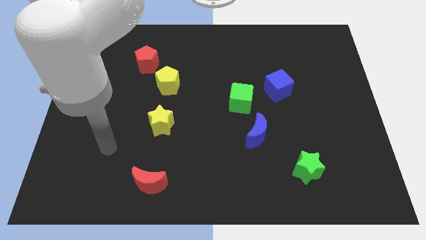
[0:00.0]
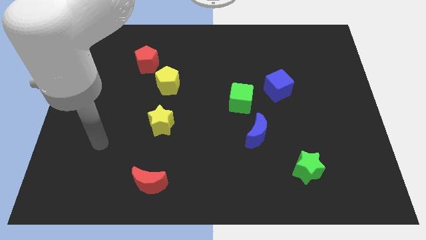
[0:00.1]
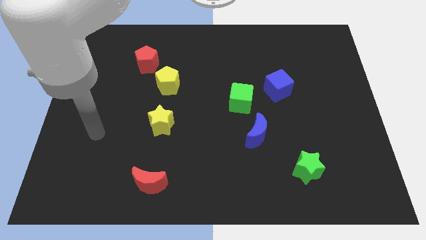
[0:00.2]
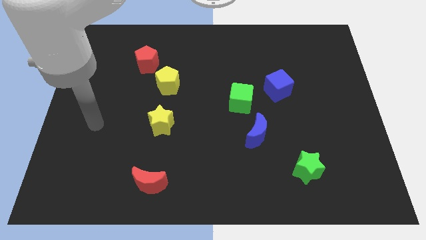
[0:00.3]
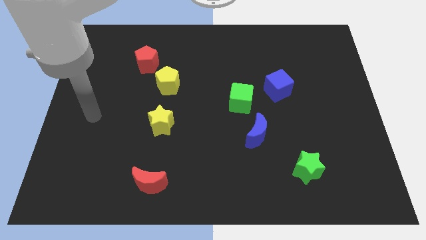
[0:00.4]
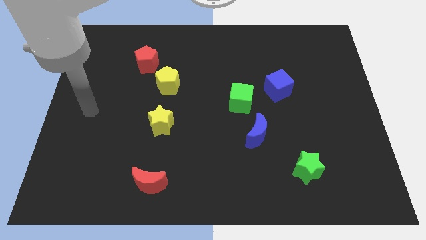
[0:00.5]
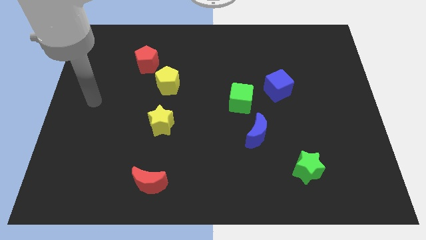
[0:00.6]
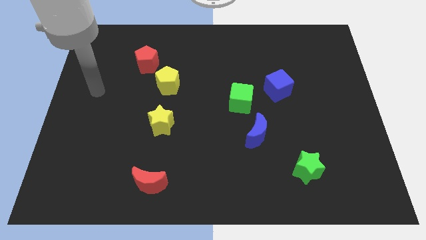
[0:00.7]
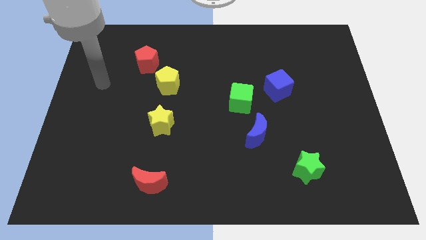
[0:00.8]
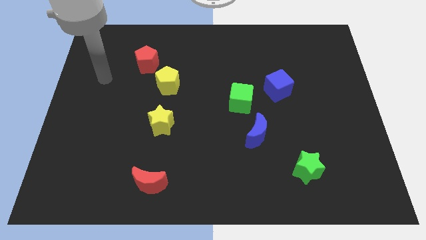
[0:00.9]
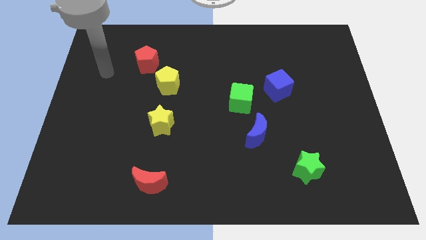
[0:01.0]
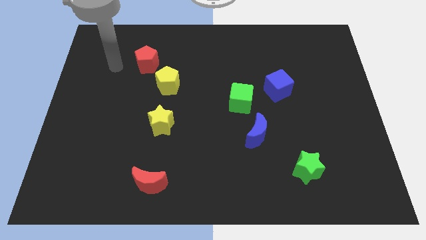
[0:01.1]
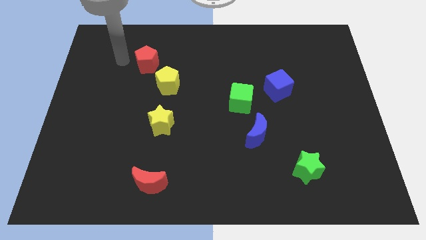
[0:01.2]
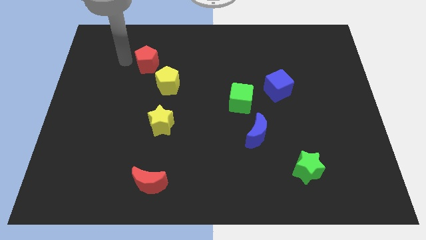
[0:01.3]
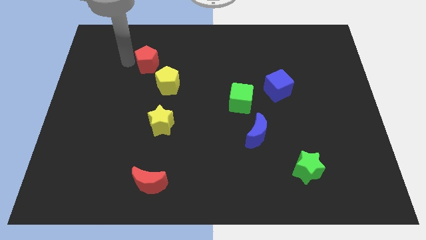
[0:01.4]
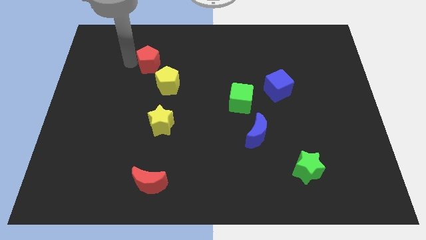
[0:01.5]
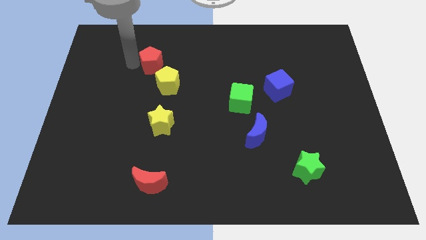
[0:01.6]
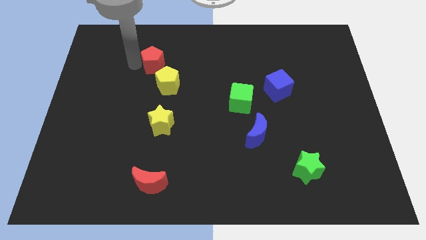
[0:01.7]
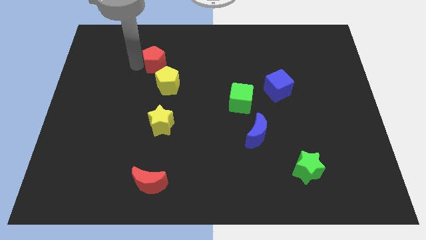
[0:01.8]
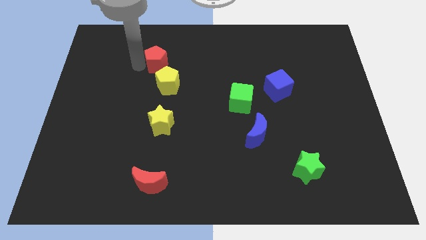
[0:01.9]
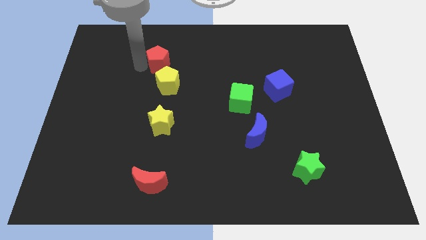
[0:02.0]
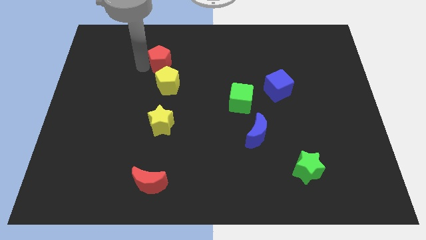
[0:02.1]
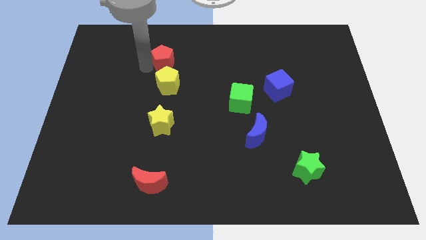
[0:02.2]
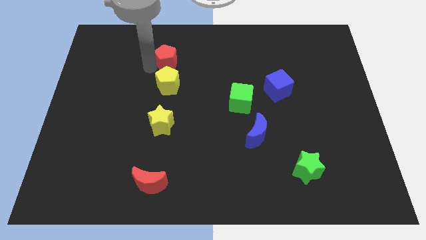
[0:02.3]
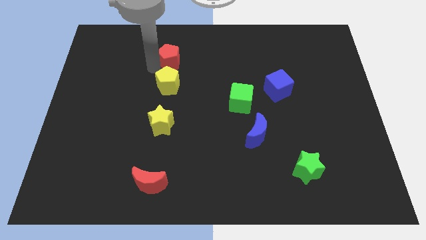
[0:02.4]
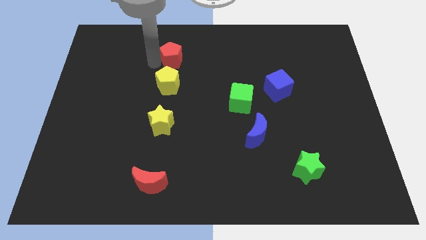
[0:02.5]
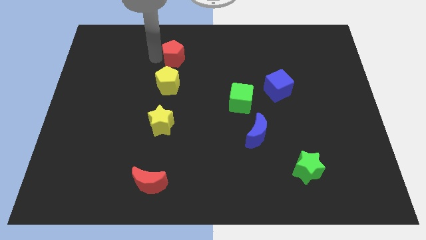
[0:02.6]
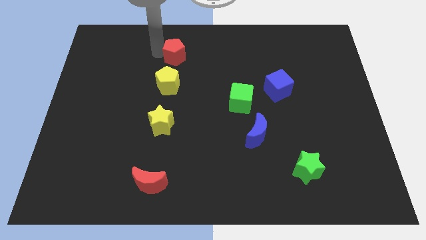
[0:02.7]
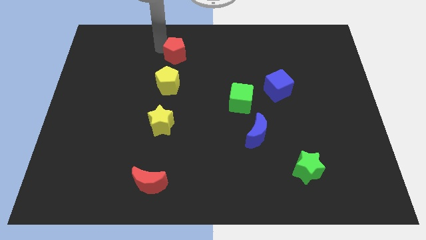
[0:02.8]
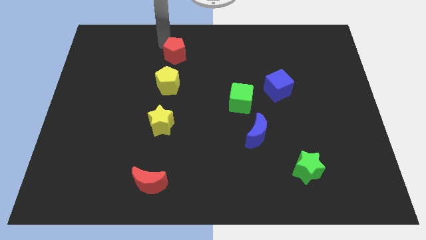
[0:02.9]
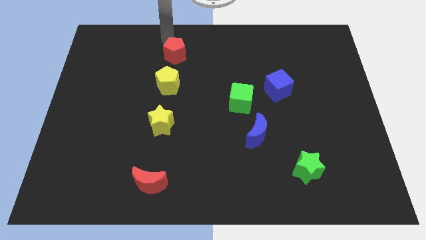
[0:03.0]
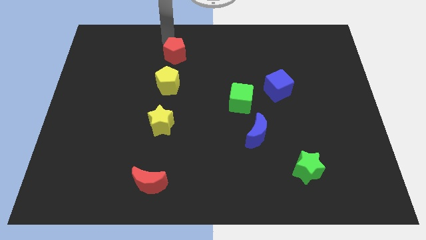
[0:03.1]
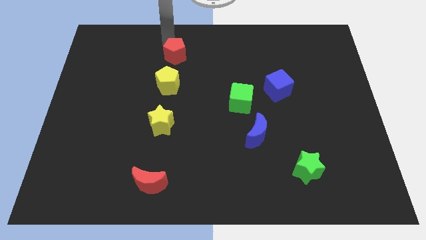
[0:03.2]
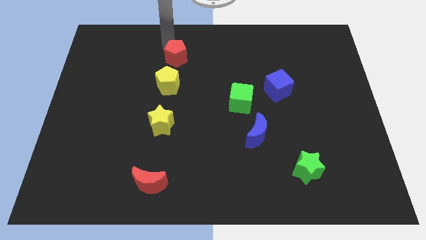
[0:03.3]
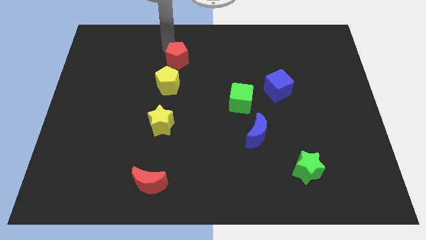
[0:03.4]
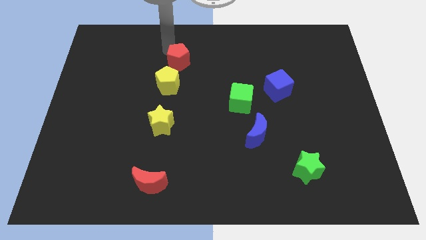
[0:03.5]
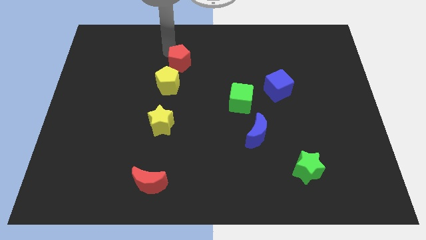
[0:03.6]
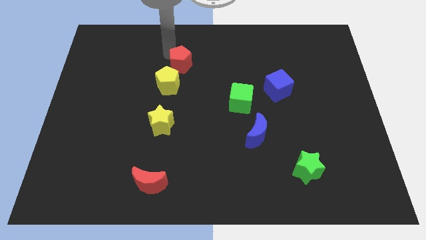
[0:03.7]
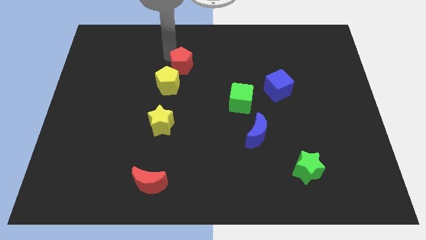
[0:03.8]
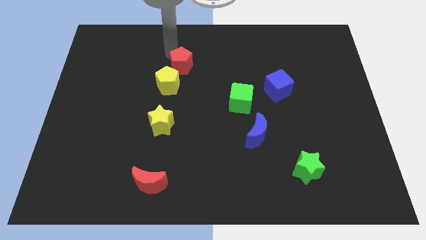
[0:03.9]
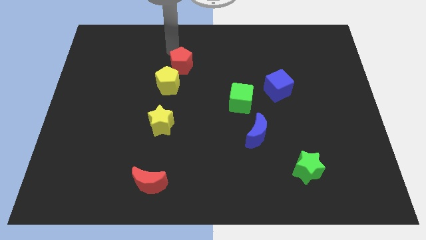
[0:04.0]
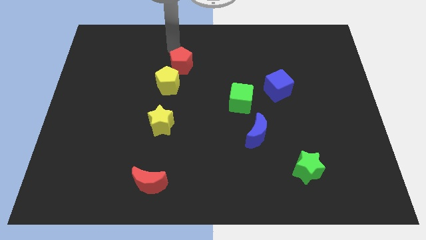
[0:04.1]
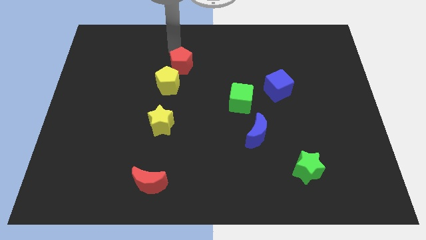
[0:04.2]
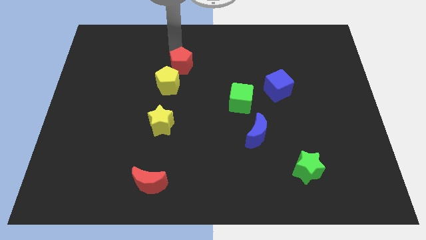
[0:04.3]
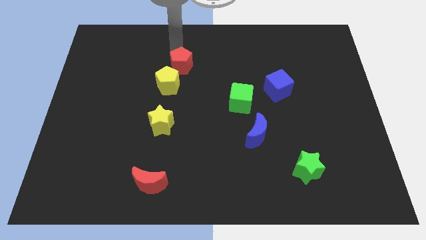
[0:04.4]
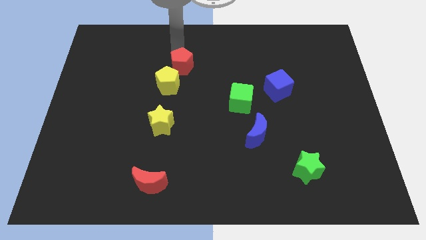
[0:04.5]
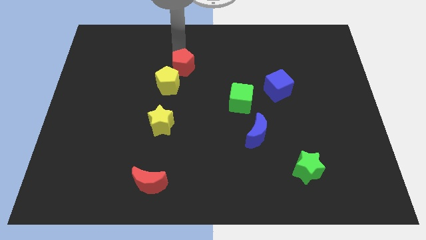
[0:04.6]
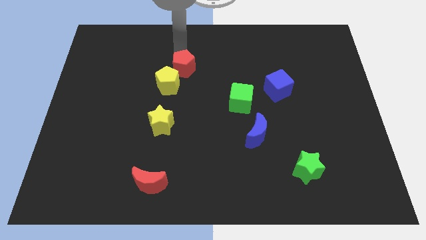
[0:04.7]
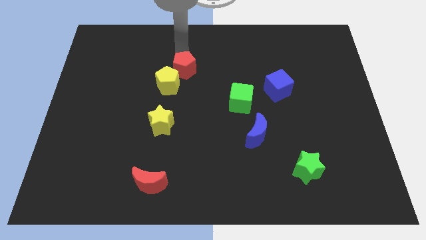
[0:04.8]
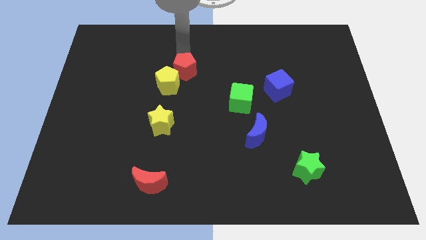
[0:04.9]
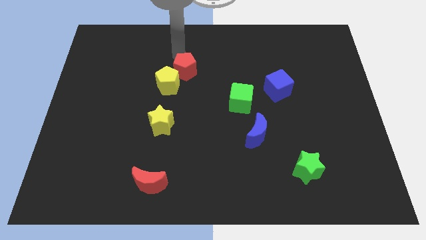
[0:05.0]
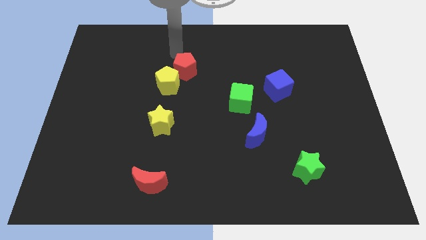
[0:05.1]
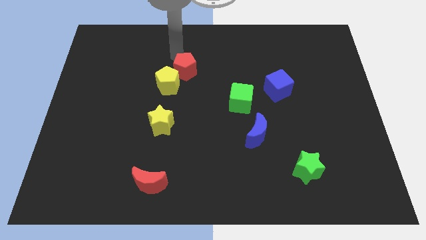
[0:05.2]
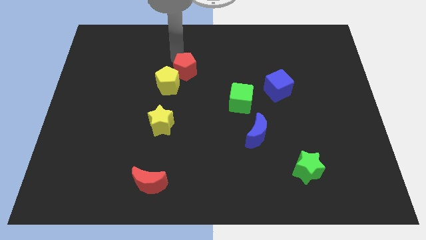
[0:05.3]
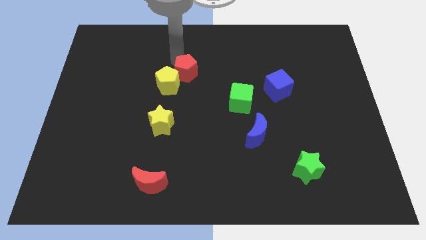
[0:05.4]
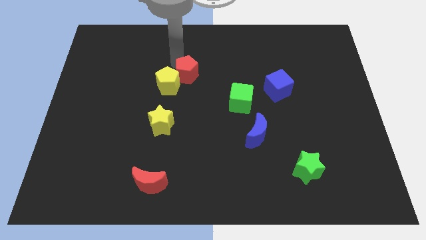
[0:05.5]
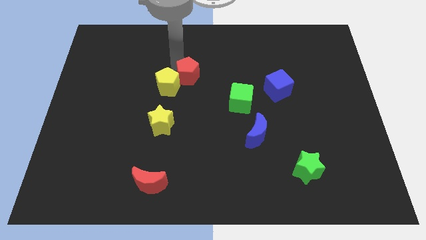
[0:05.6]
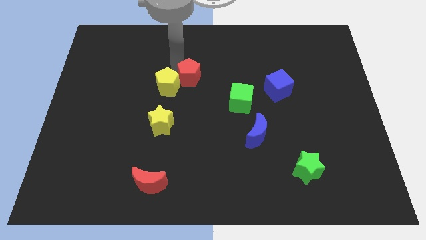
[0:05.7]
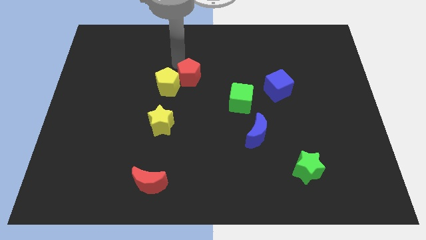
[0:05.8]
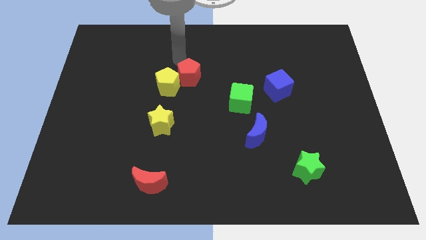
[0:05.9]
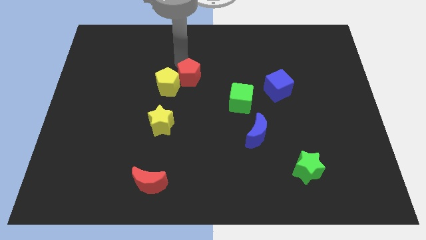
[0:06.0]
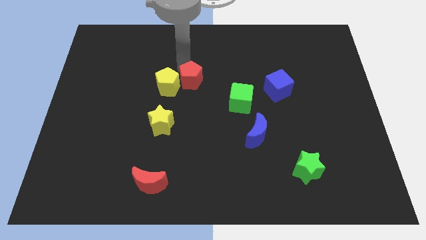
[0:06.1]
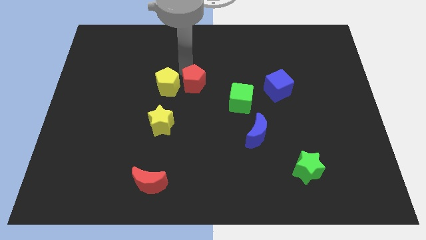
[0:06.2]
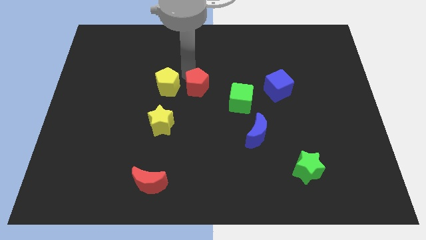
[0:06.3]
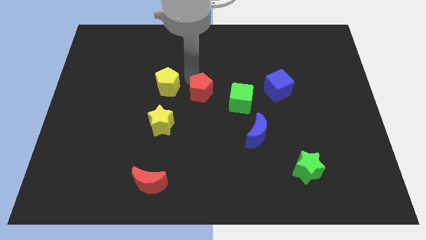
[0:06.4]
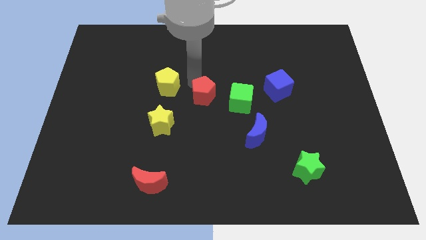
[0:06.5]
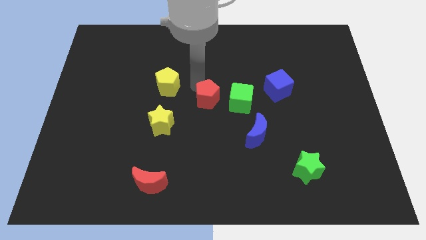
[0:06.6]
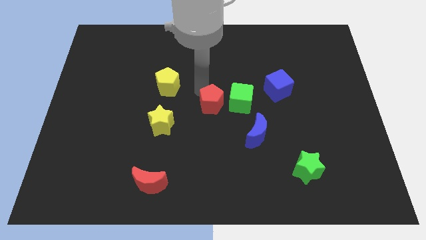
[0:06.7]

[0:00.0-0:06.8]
push the red pentagon diagonally down and right

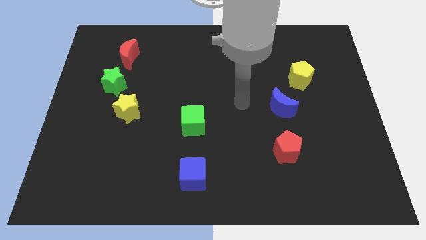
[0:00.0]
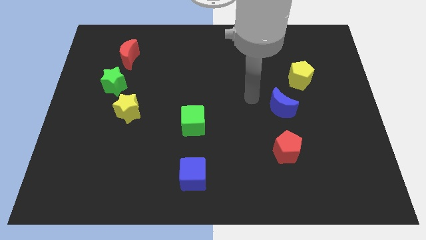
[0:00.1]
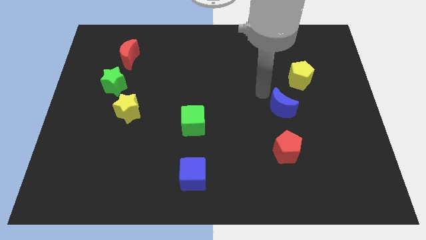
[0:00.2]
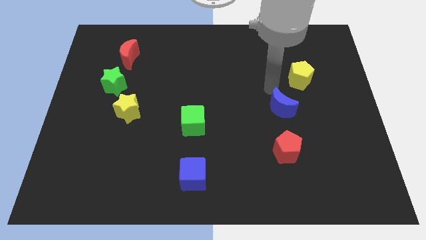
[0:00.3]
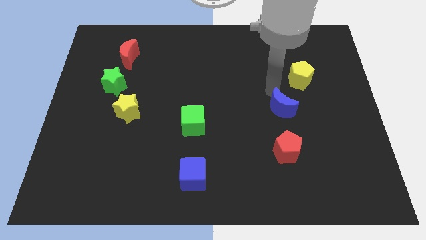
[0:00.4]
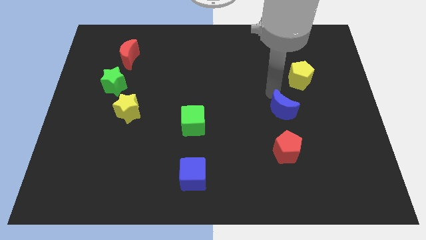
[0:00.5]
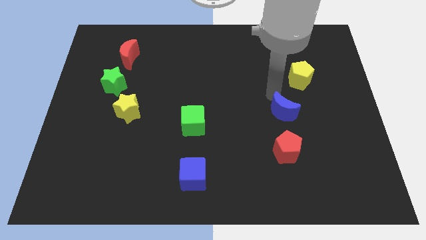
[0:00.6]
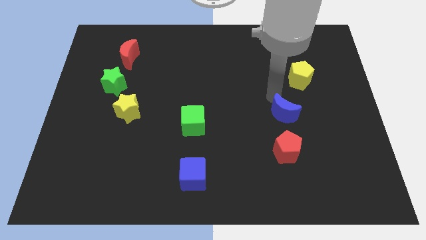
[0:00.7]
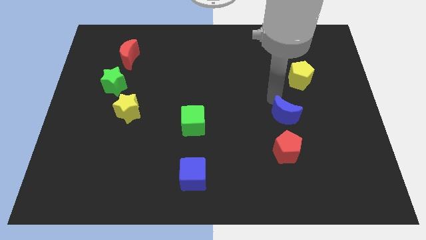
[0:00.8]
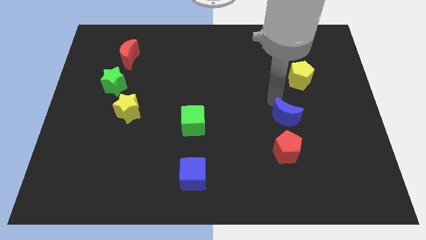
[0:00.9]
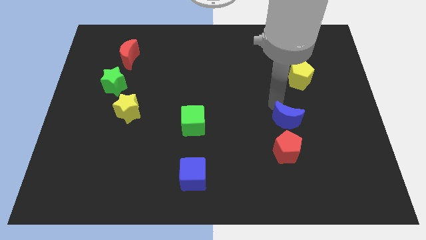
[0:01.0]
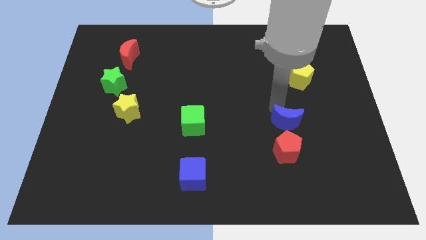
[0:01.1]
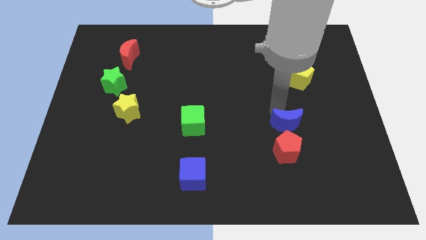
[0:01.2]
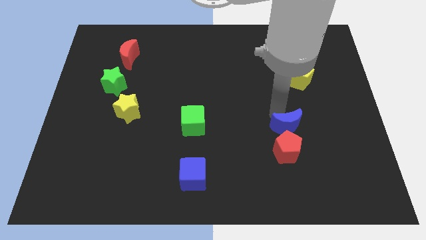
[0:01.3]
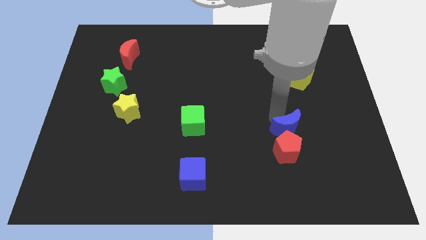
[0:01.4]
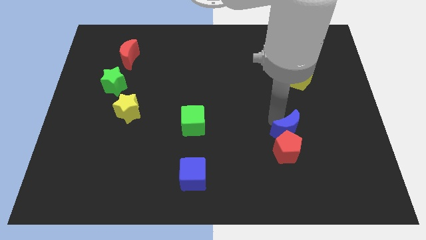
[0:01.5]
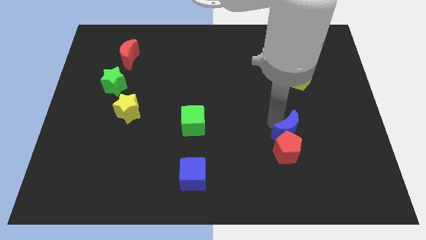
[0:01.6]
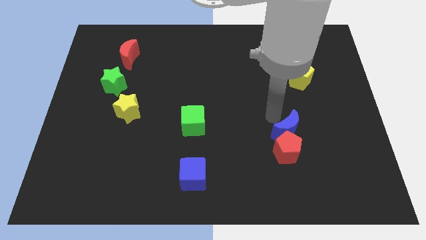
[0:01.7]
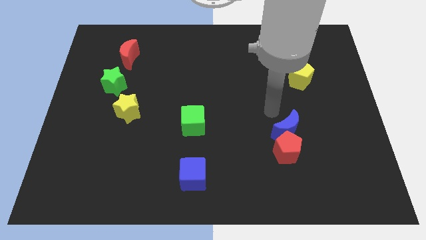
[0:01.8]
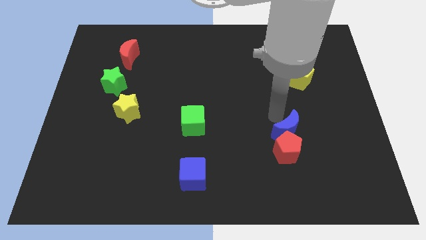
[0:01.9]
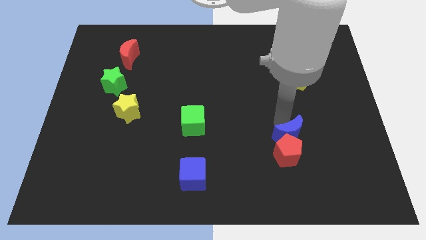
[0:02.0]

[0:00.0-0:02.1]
slide the blue moon a little downwards
